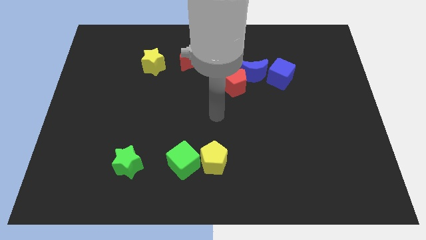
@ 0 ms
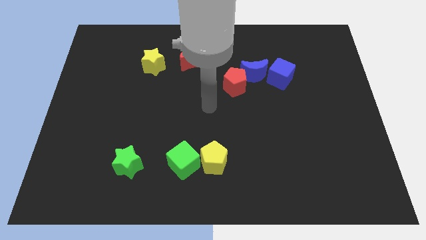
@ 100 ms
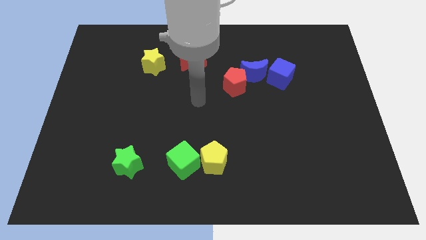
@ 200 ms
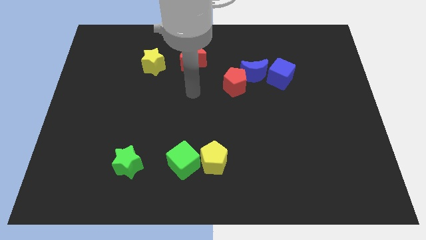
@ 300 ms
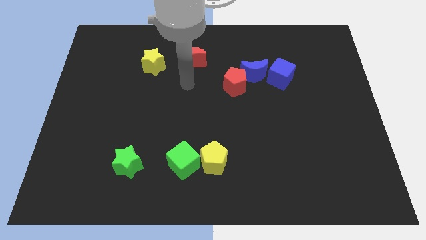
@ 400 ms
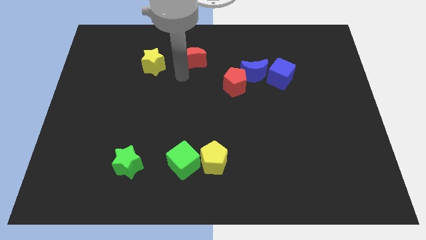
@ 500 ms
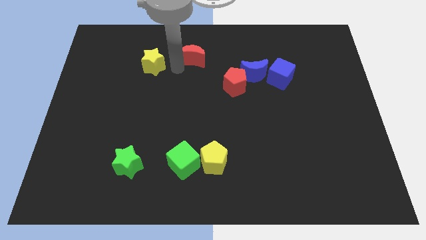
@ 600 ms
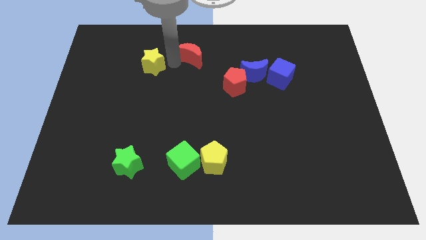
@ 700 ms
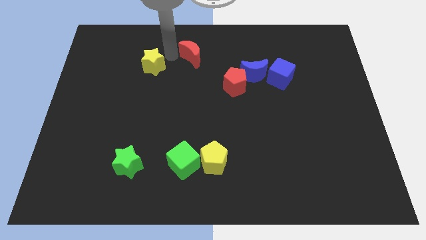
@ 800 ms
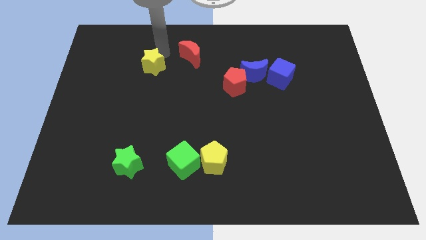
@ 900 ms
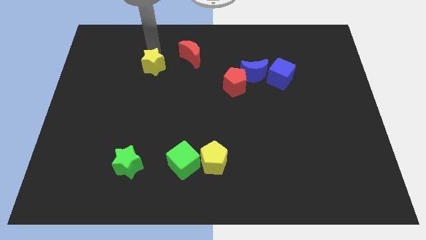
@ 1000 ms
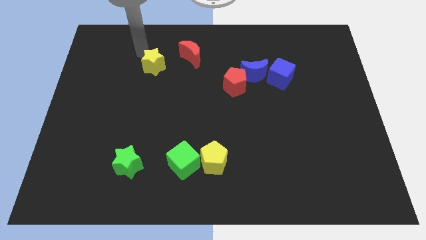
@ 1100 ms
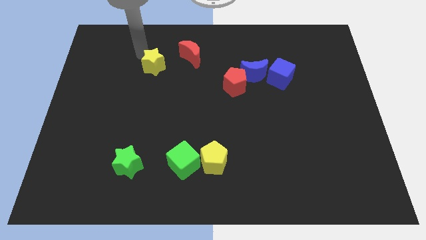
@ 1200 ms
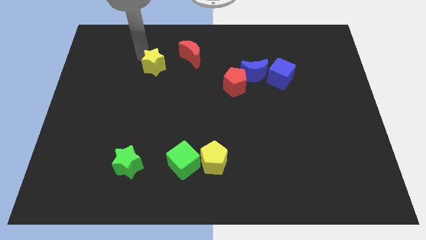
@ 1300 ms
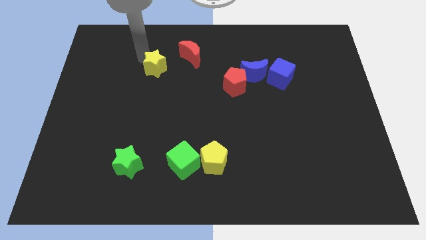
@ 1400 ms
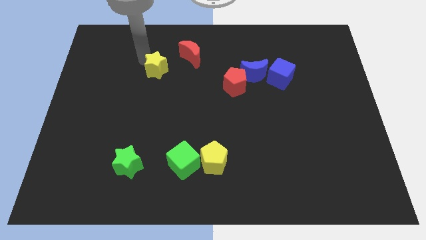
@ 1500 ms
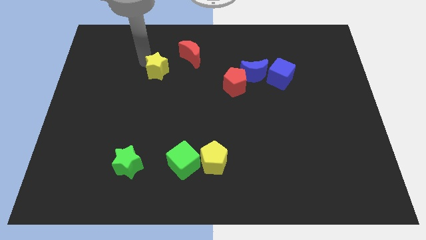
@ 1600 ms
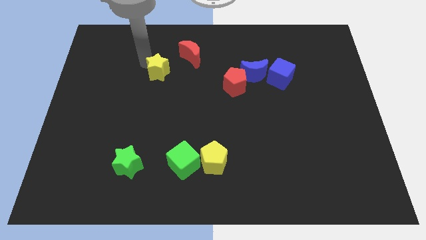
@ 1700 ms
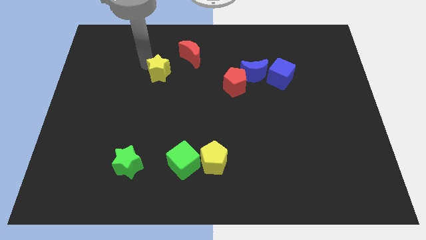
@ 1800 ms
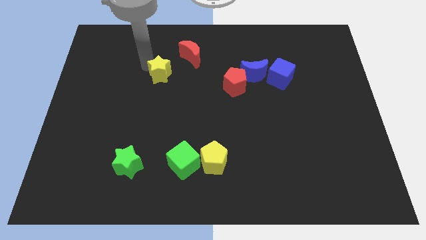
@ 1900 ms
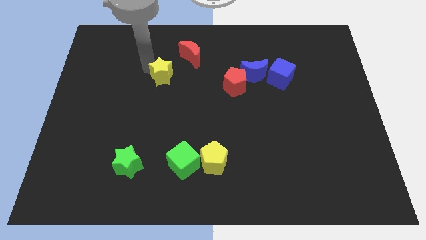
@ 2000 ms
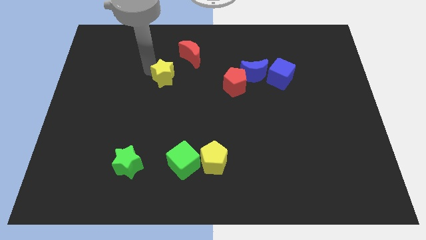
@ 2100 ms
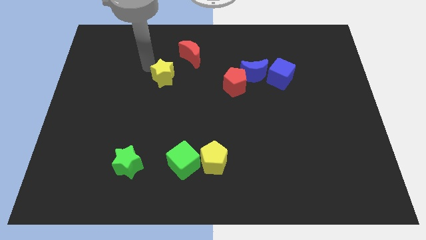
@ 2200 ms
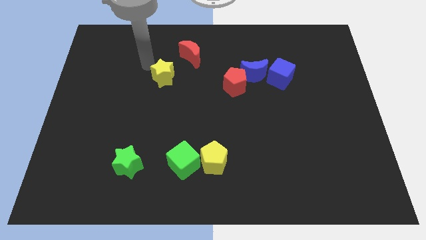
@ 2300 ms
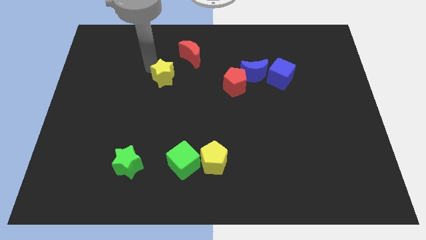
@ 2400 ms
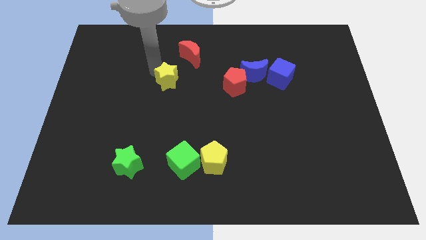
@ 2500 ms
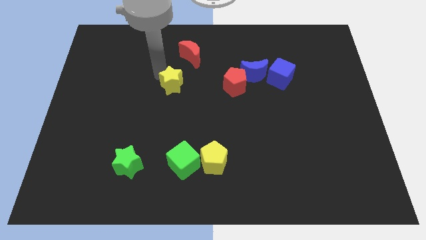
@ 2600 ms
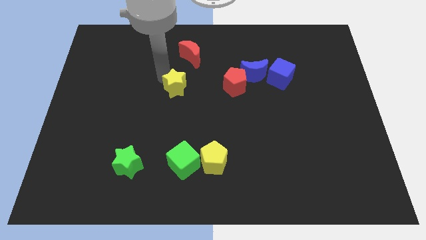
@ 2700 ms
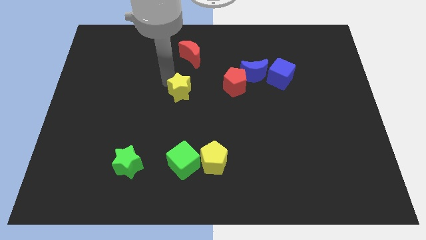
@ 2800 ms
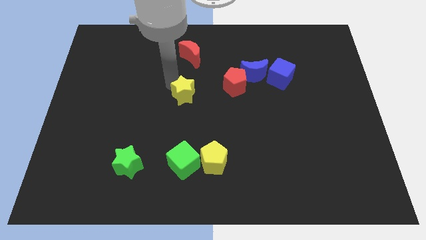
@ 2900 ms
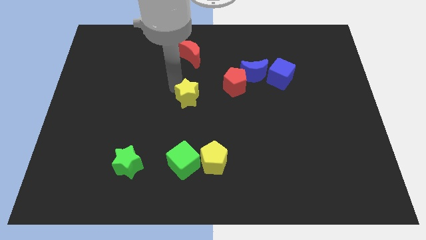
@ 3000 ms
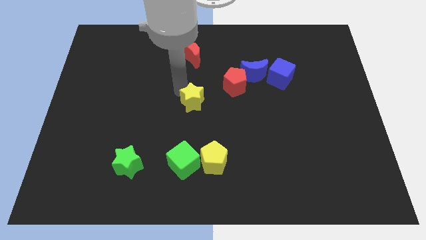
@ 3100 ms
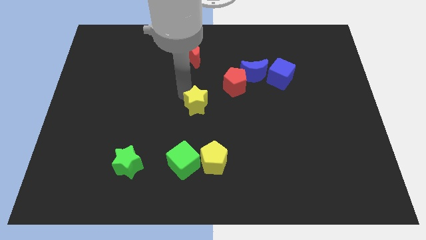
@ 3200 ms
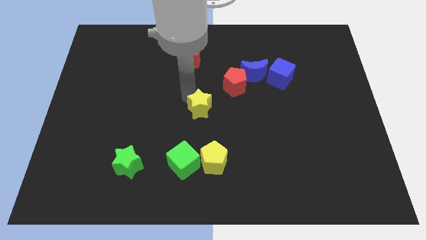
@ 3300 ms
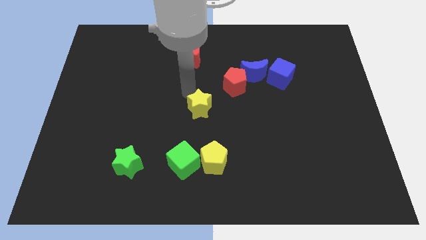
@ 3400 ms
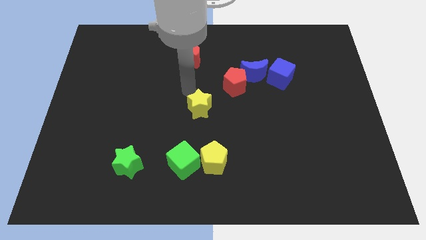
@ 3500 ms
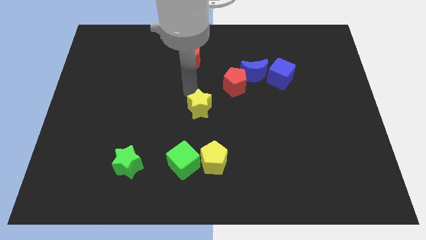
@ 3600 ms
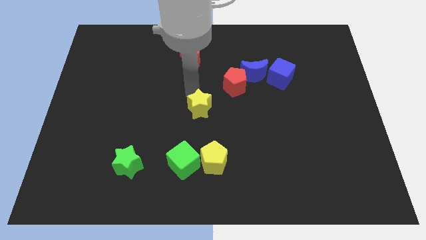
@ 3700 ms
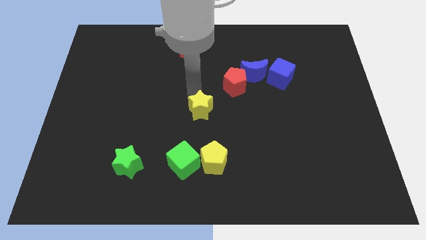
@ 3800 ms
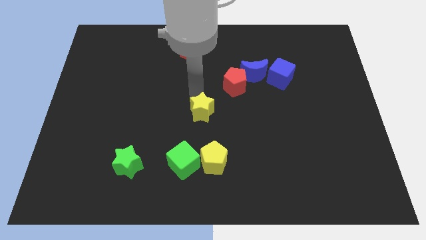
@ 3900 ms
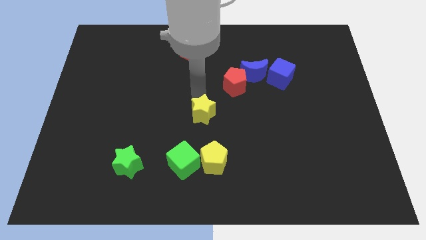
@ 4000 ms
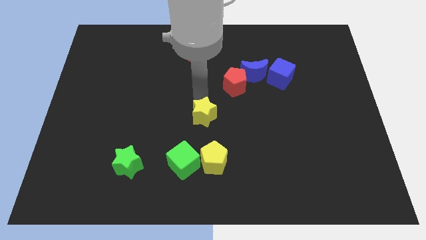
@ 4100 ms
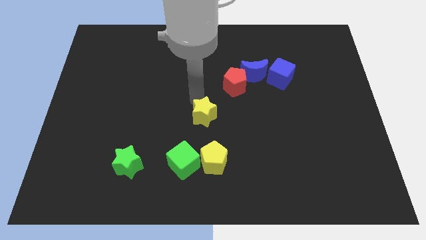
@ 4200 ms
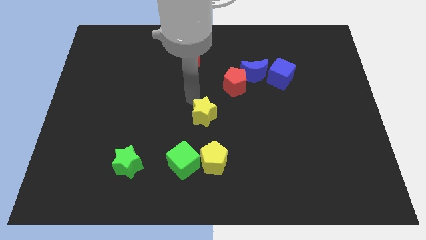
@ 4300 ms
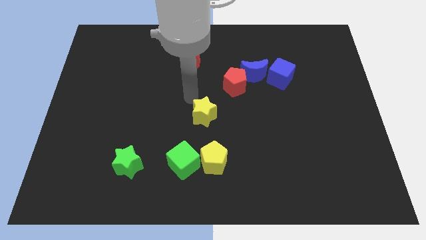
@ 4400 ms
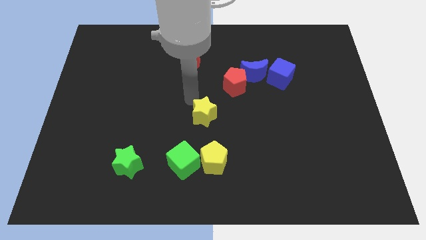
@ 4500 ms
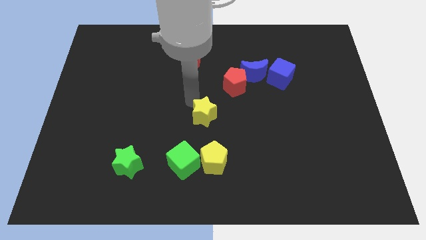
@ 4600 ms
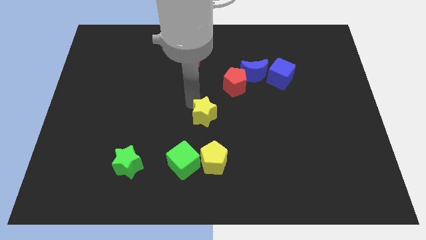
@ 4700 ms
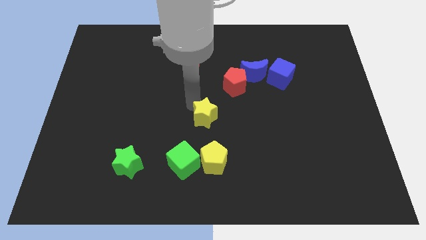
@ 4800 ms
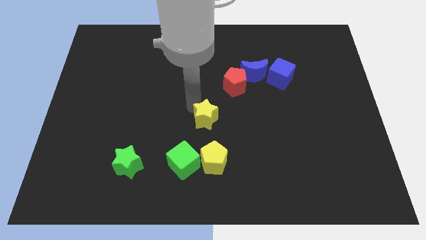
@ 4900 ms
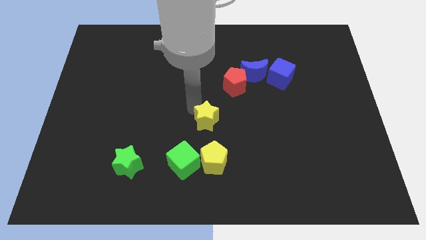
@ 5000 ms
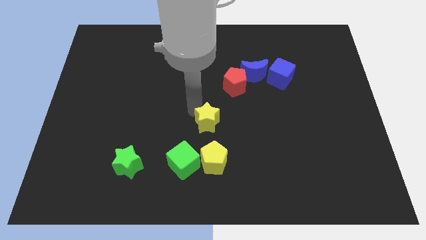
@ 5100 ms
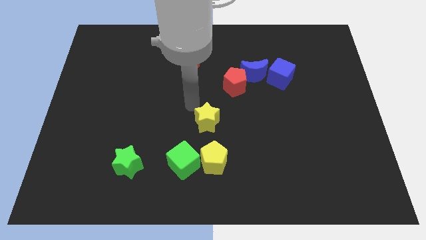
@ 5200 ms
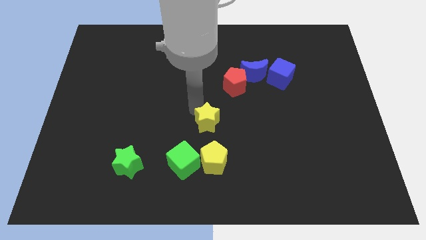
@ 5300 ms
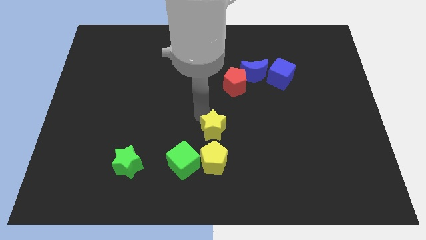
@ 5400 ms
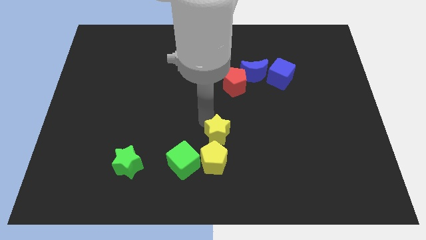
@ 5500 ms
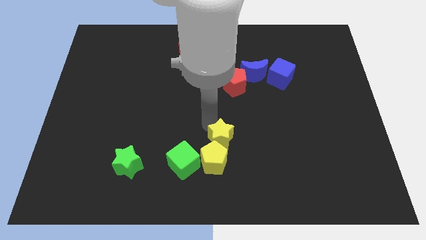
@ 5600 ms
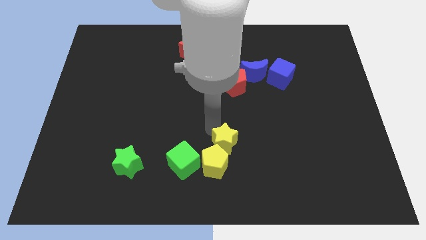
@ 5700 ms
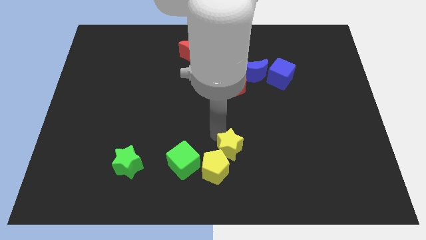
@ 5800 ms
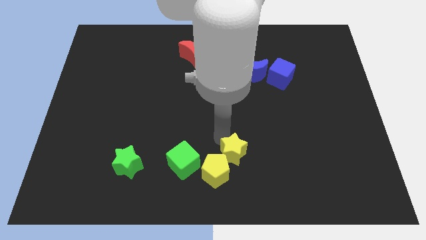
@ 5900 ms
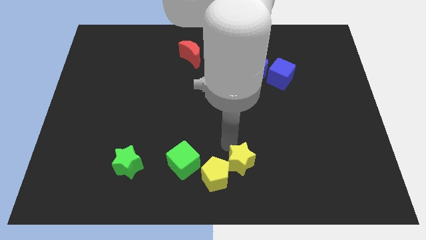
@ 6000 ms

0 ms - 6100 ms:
put the yellow star to the bottom side
